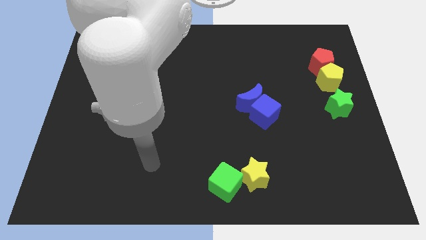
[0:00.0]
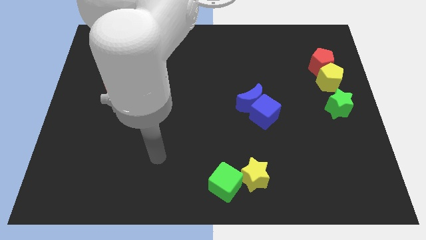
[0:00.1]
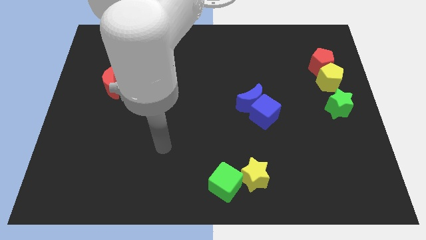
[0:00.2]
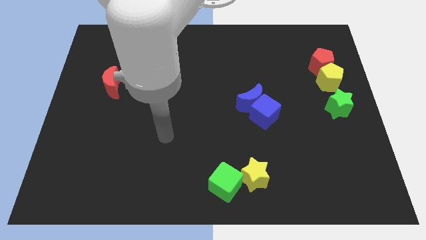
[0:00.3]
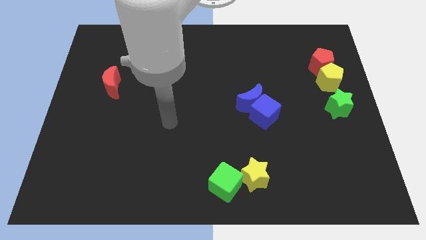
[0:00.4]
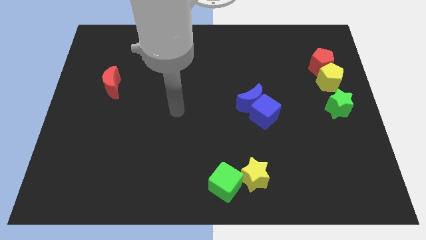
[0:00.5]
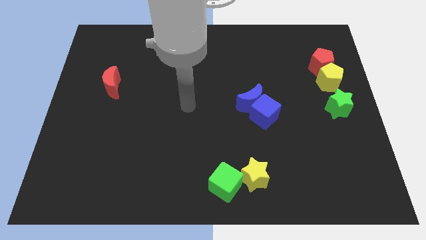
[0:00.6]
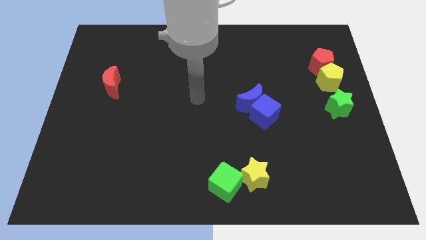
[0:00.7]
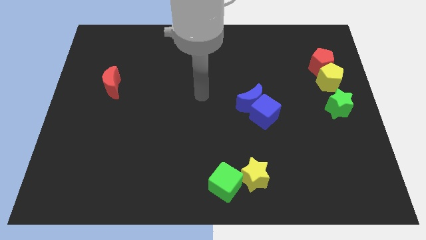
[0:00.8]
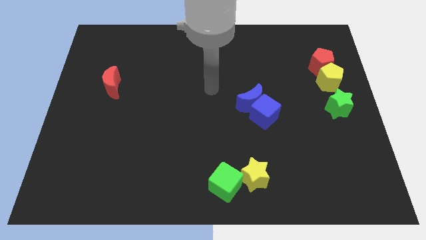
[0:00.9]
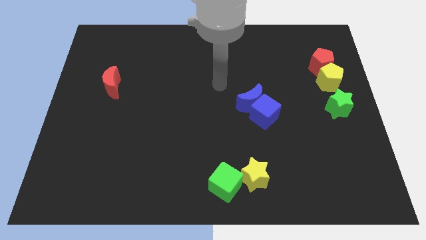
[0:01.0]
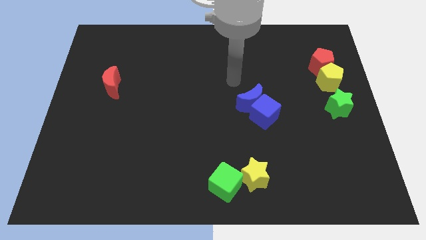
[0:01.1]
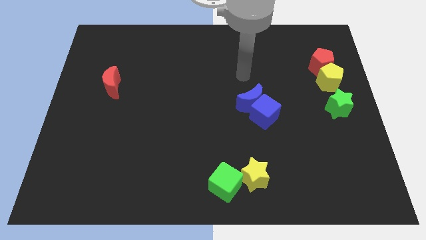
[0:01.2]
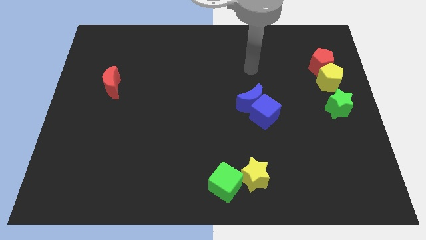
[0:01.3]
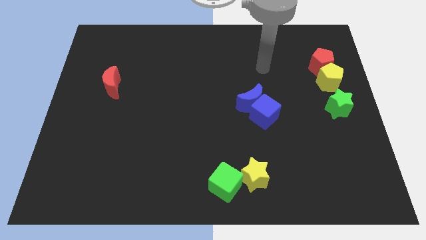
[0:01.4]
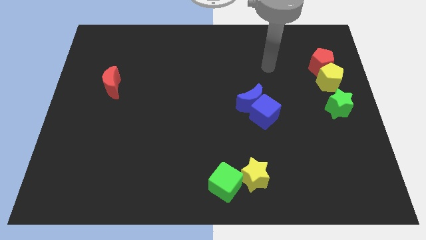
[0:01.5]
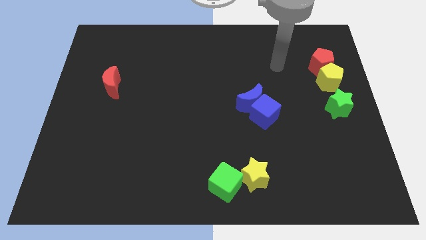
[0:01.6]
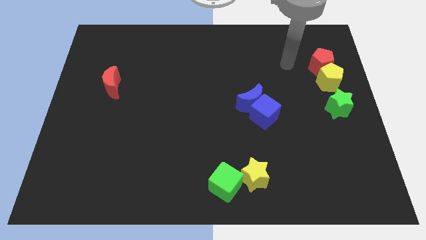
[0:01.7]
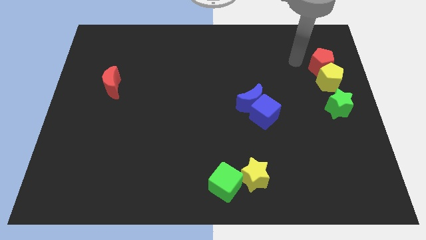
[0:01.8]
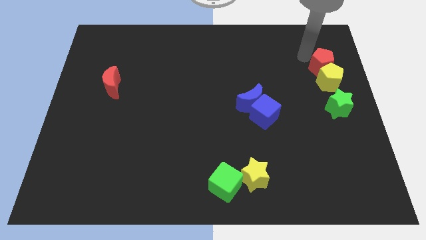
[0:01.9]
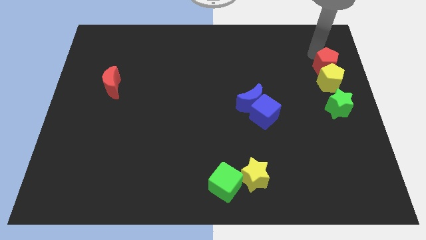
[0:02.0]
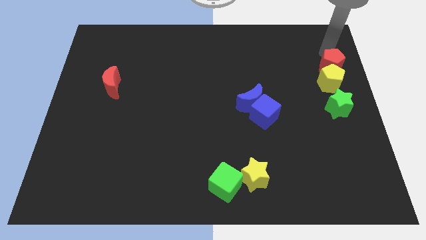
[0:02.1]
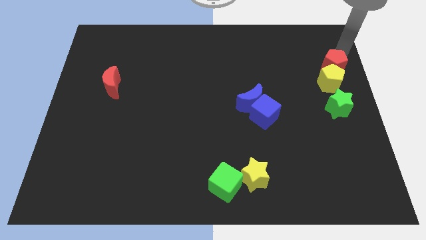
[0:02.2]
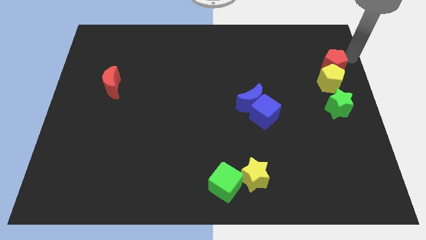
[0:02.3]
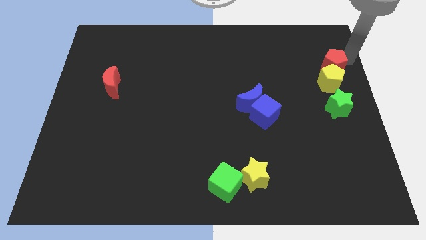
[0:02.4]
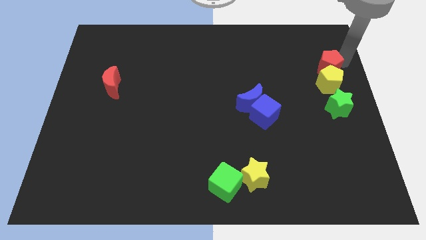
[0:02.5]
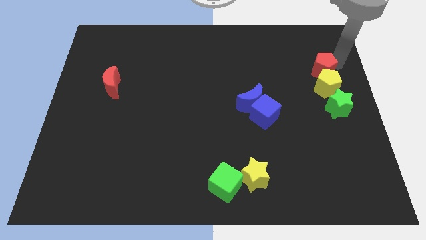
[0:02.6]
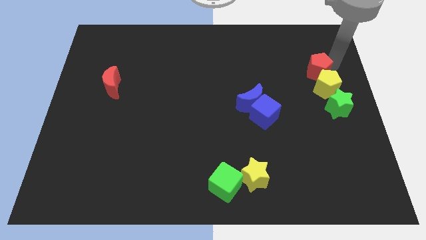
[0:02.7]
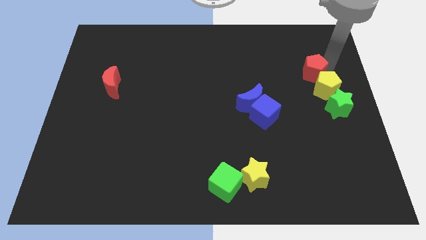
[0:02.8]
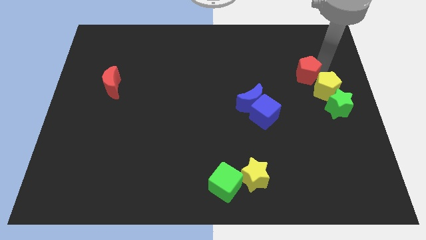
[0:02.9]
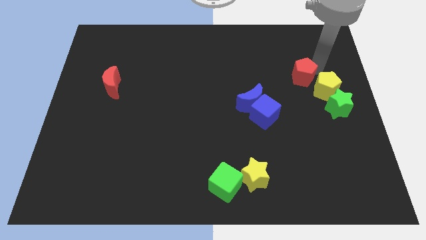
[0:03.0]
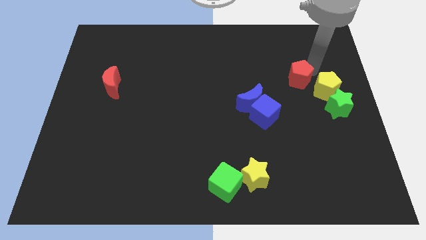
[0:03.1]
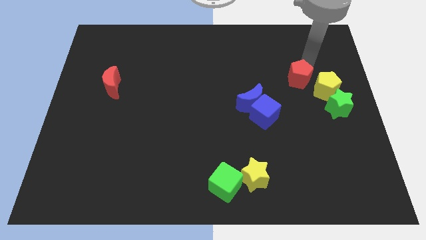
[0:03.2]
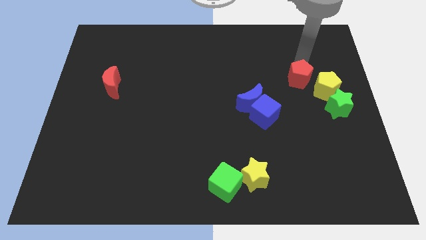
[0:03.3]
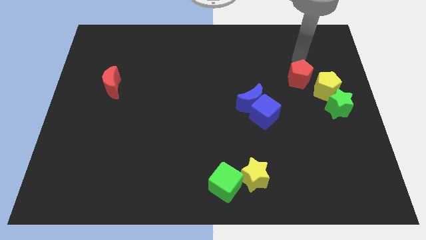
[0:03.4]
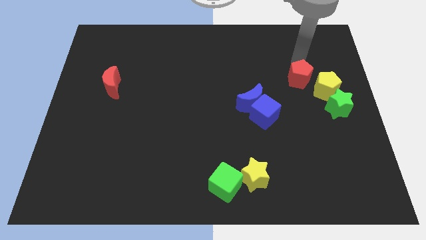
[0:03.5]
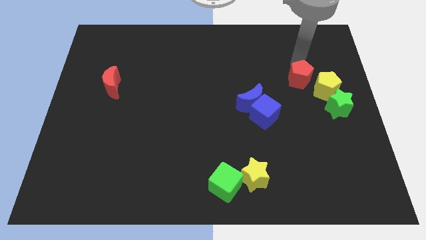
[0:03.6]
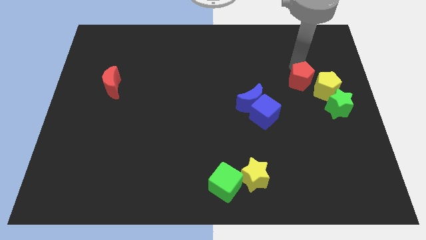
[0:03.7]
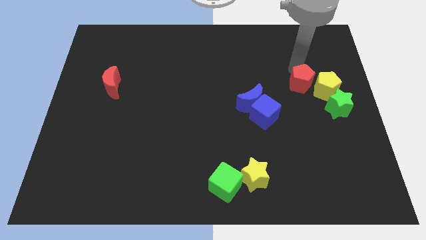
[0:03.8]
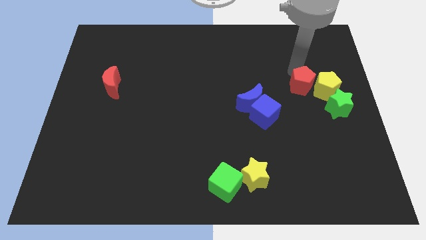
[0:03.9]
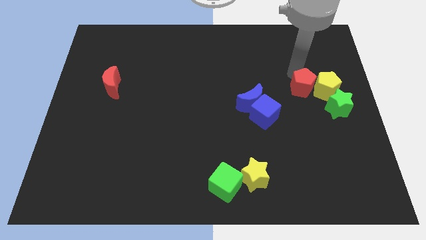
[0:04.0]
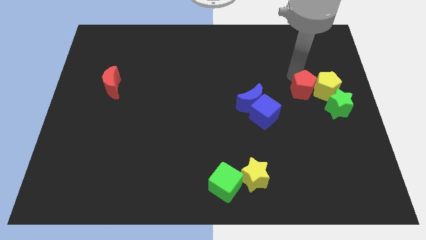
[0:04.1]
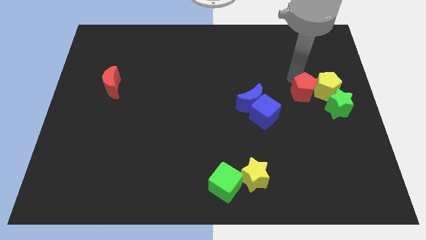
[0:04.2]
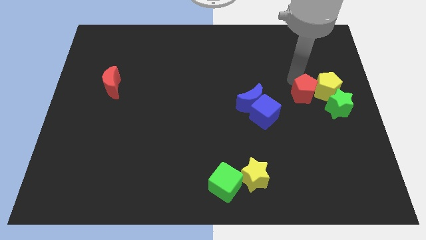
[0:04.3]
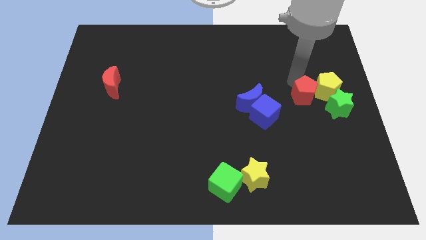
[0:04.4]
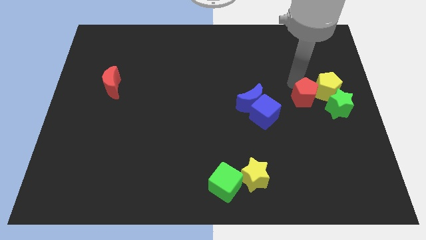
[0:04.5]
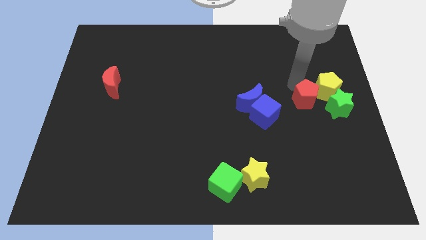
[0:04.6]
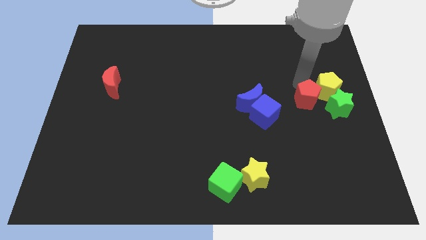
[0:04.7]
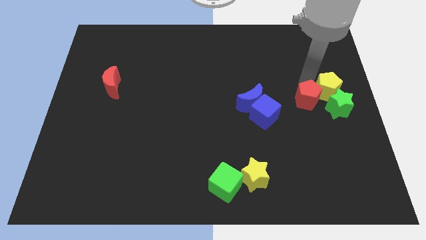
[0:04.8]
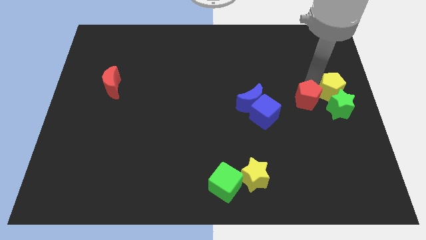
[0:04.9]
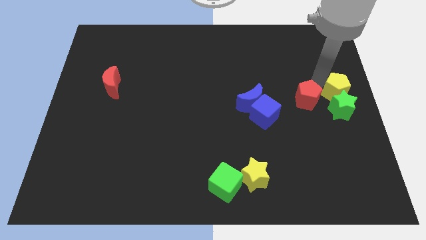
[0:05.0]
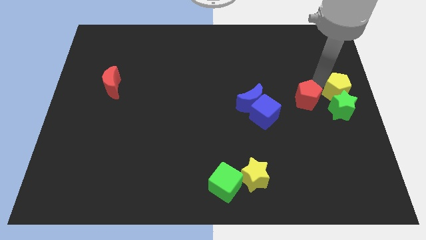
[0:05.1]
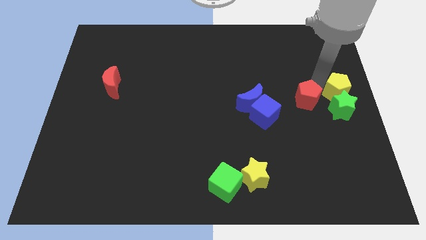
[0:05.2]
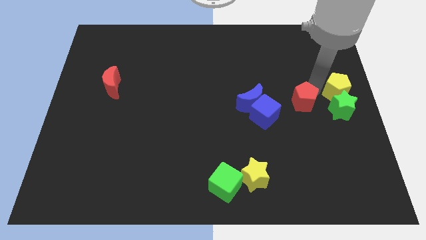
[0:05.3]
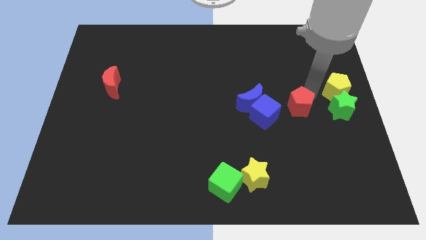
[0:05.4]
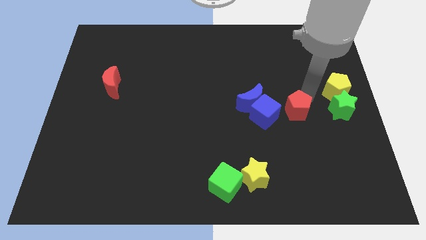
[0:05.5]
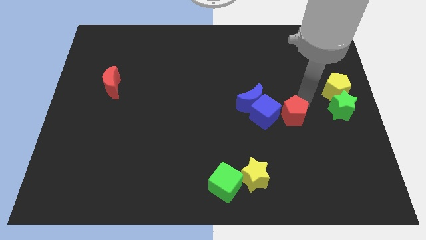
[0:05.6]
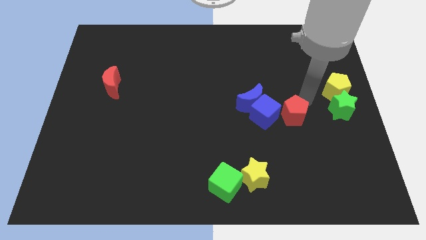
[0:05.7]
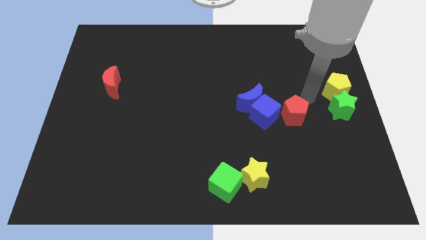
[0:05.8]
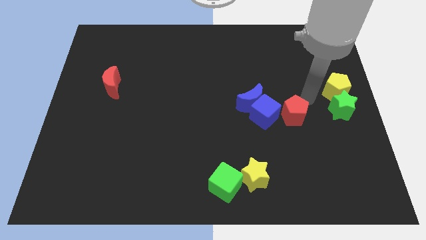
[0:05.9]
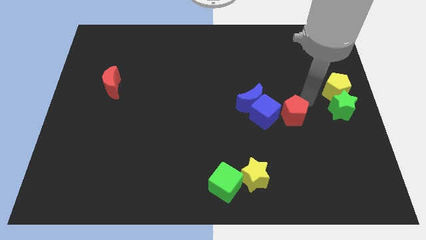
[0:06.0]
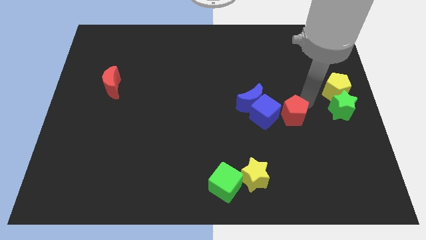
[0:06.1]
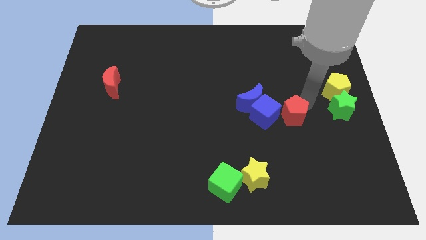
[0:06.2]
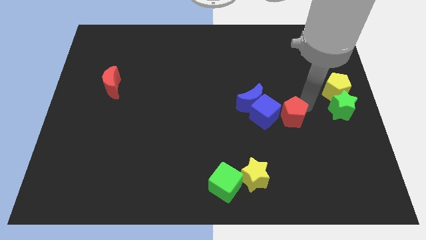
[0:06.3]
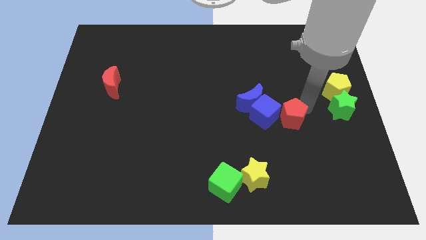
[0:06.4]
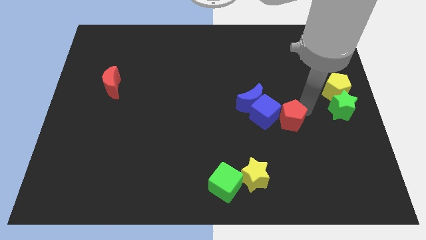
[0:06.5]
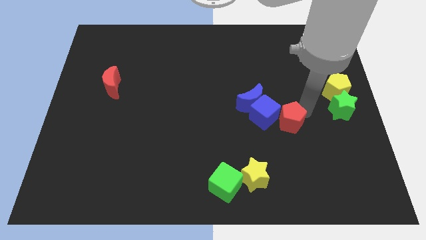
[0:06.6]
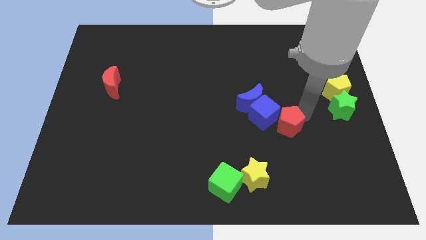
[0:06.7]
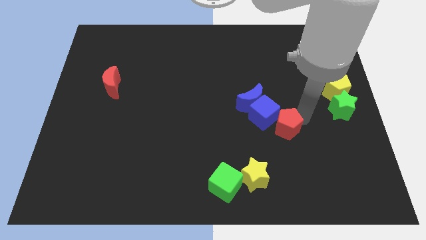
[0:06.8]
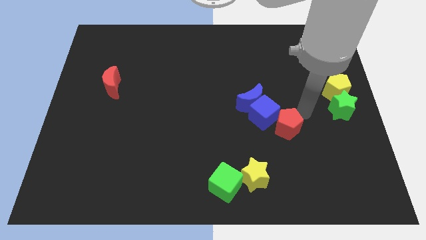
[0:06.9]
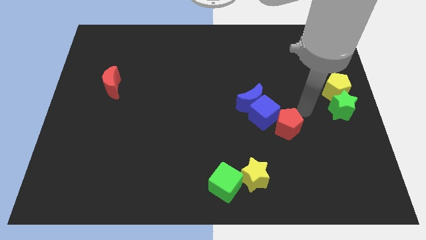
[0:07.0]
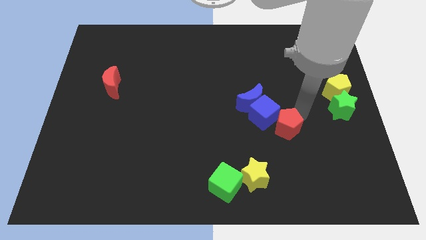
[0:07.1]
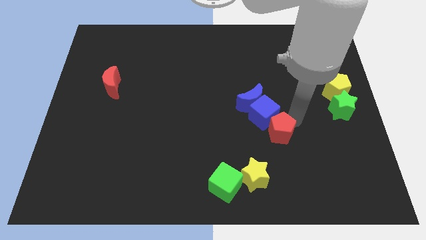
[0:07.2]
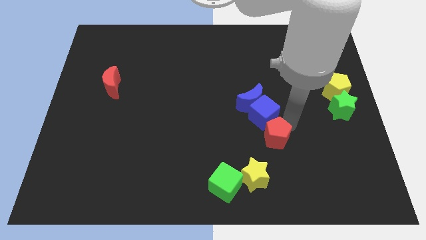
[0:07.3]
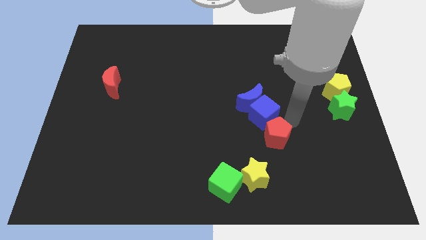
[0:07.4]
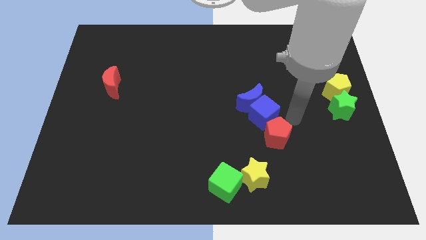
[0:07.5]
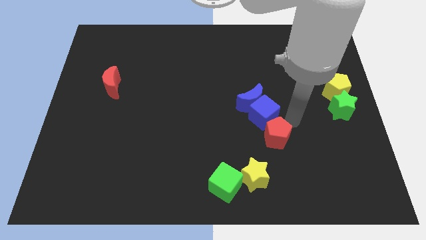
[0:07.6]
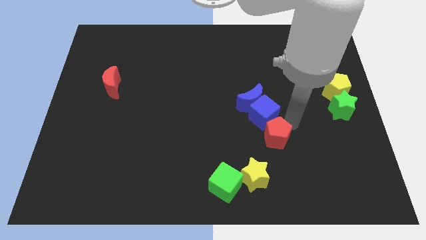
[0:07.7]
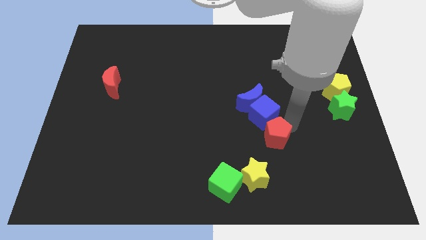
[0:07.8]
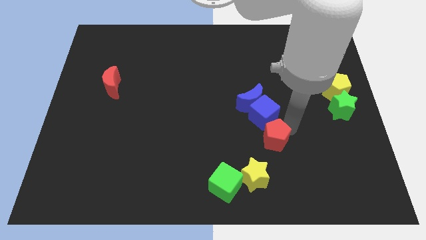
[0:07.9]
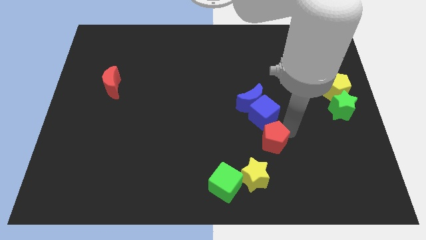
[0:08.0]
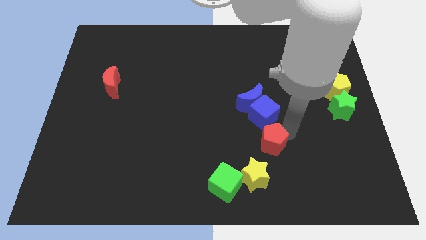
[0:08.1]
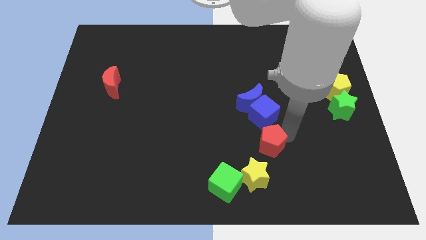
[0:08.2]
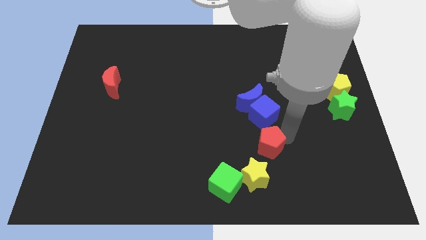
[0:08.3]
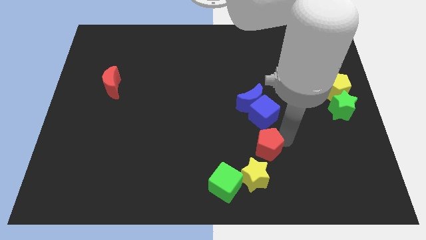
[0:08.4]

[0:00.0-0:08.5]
push the red pentagon diagonally up and to the right of the green cube
